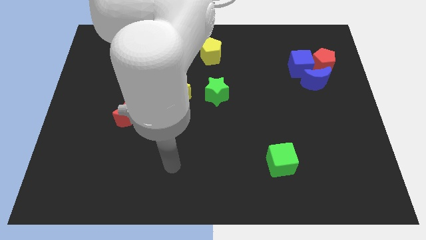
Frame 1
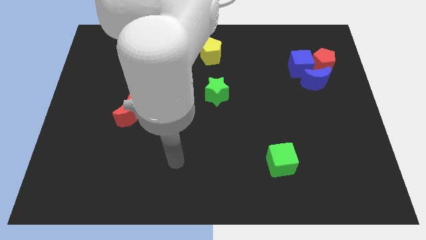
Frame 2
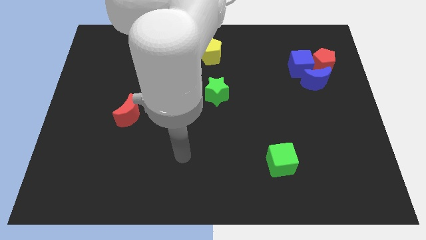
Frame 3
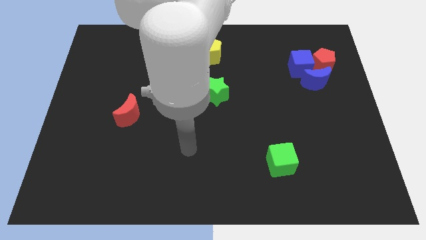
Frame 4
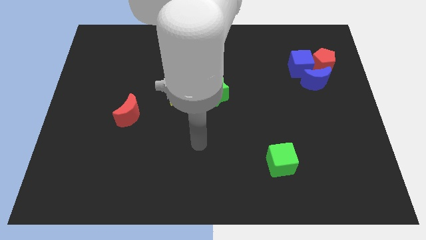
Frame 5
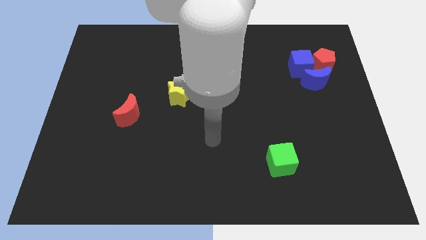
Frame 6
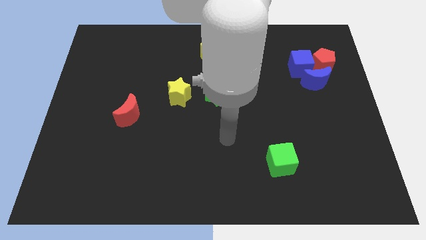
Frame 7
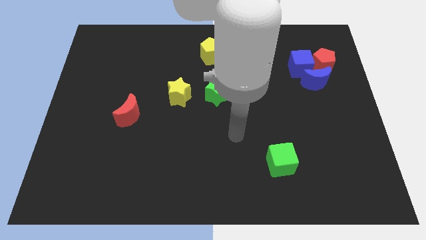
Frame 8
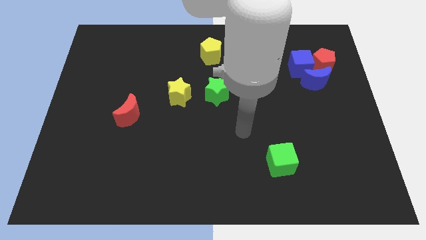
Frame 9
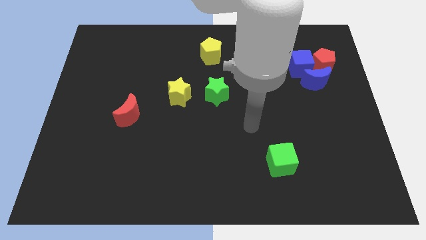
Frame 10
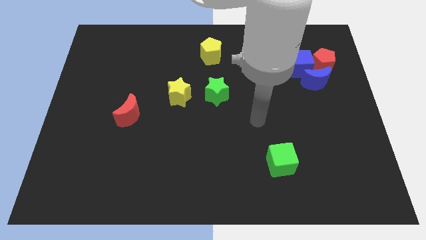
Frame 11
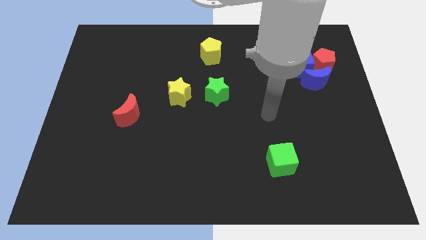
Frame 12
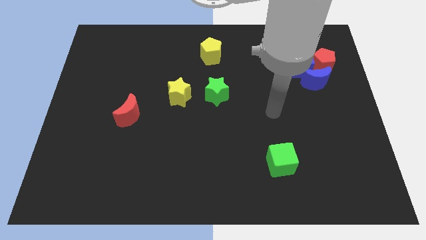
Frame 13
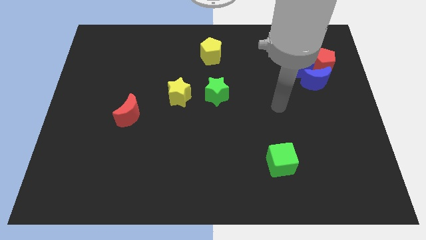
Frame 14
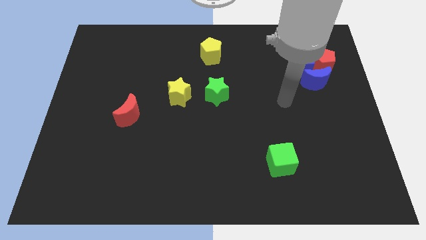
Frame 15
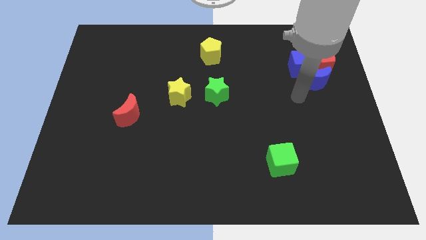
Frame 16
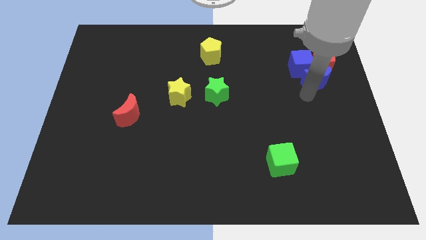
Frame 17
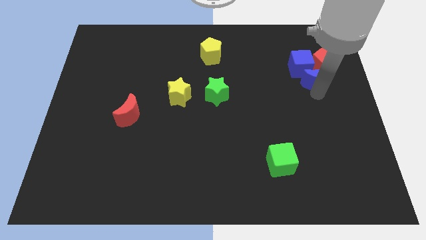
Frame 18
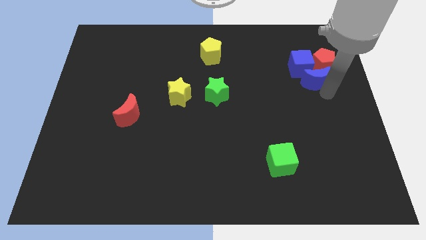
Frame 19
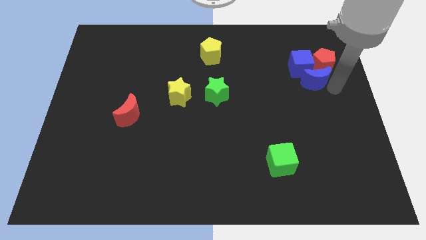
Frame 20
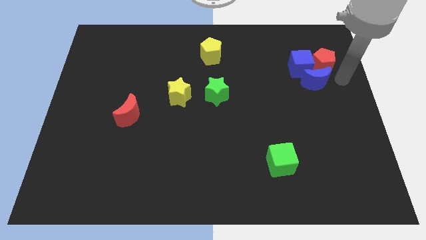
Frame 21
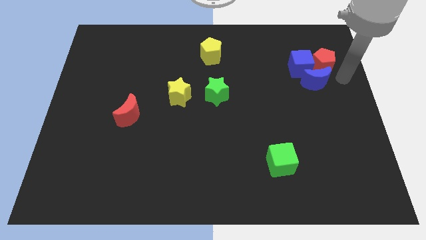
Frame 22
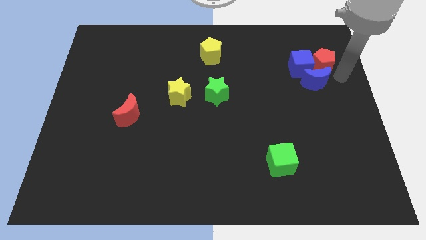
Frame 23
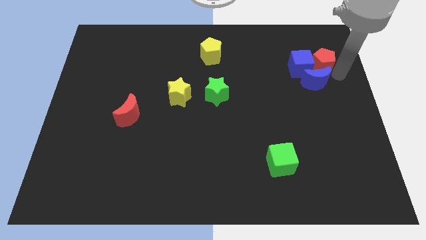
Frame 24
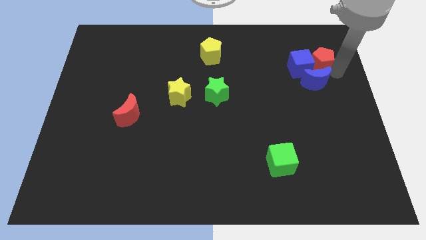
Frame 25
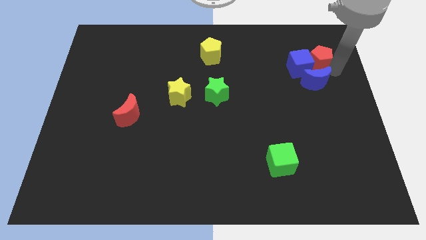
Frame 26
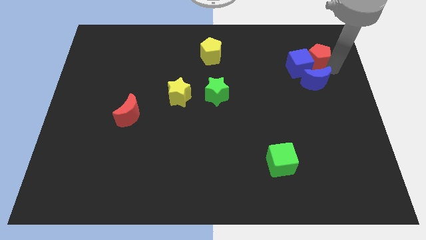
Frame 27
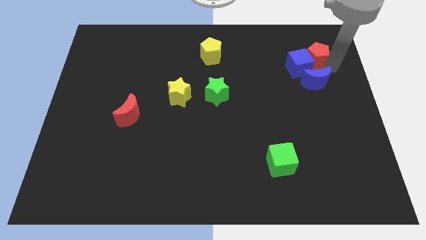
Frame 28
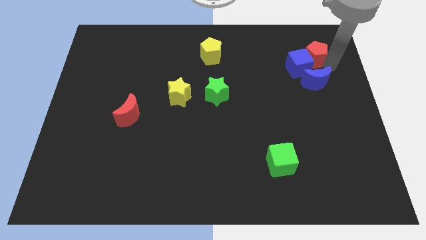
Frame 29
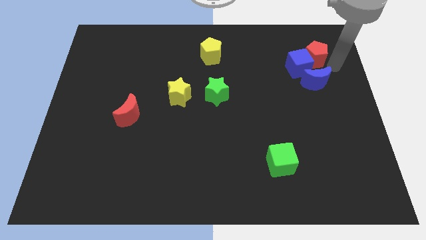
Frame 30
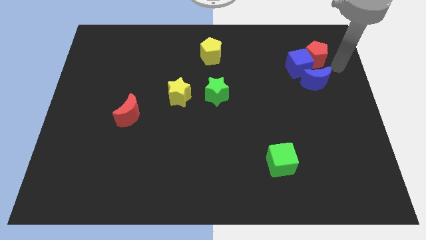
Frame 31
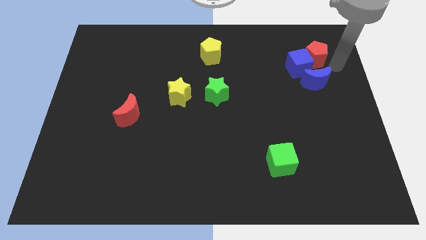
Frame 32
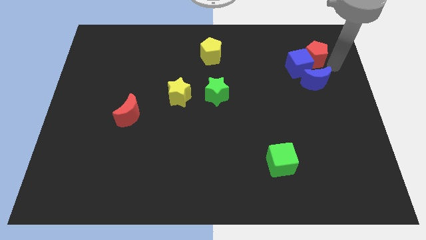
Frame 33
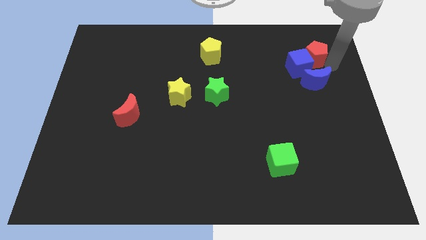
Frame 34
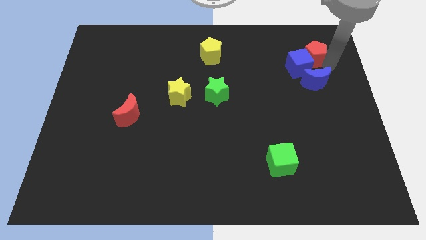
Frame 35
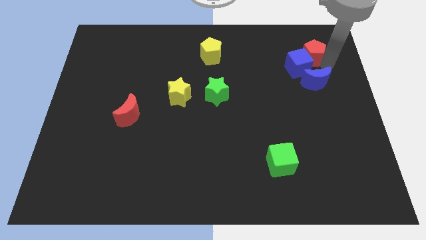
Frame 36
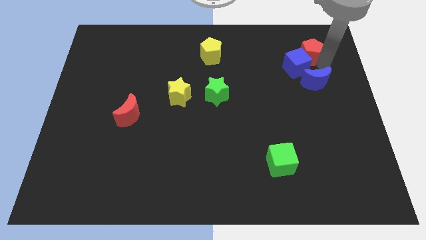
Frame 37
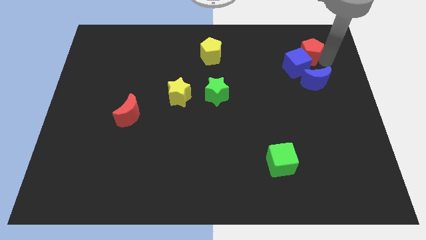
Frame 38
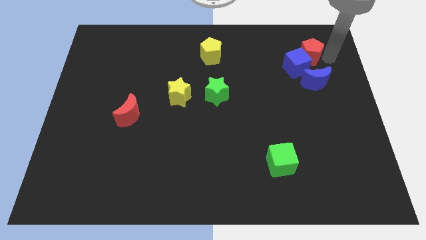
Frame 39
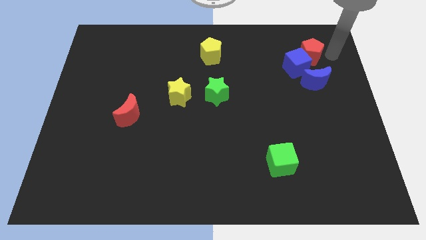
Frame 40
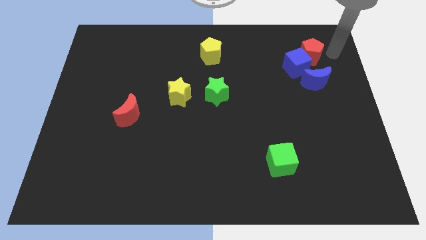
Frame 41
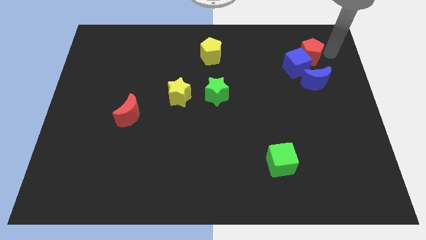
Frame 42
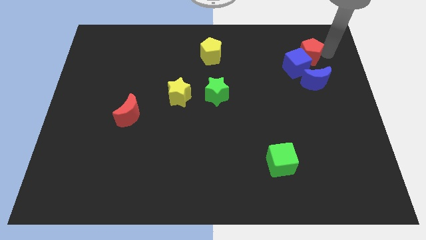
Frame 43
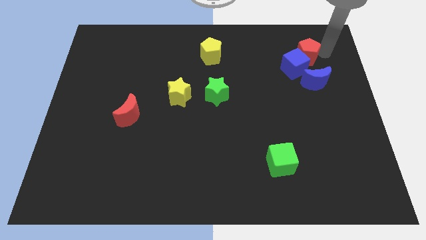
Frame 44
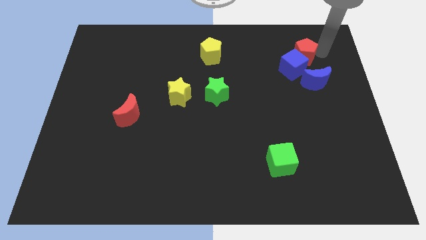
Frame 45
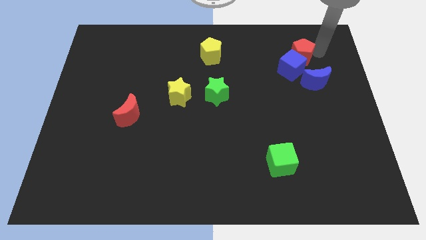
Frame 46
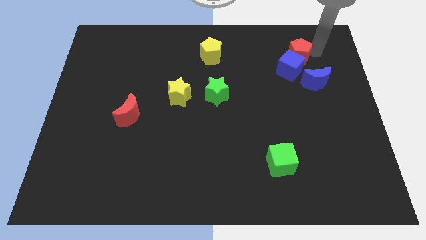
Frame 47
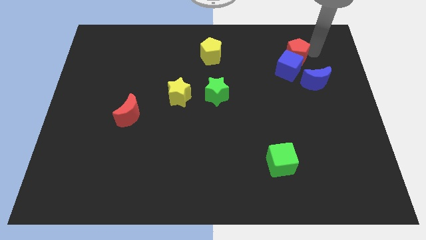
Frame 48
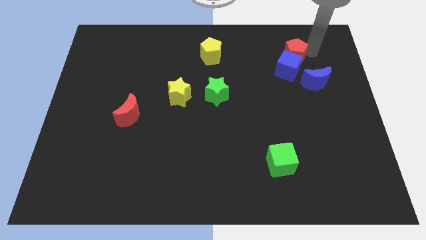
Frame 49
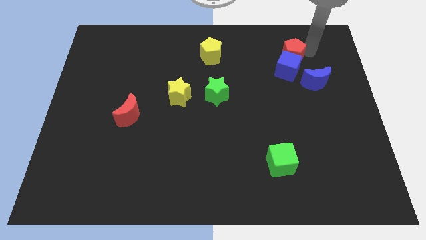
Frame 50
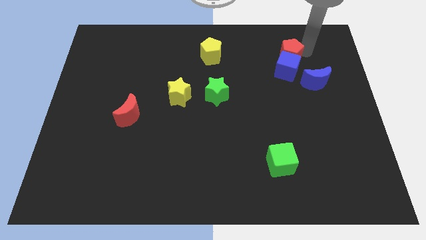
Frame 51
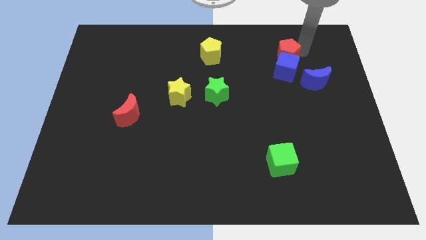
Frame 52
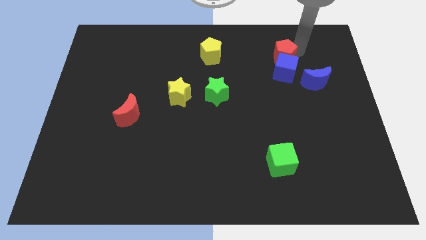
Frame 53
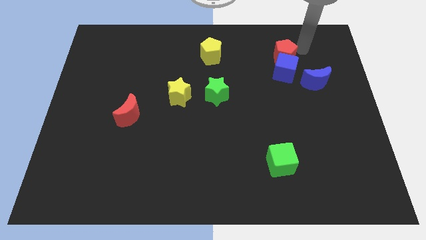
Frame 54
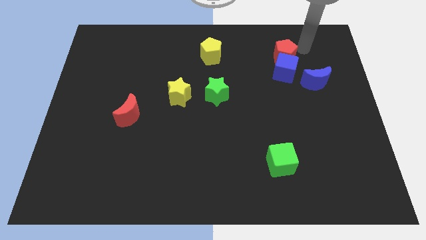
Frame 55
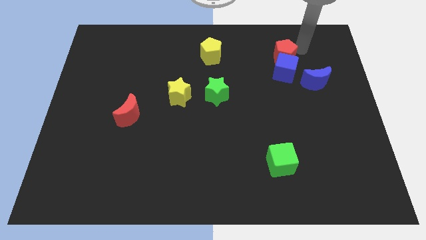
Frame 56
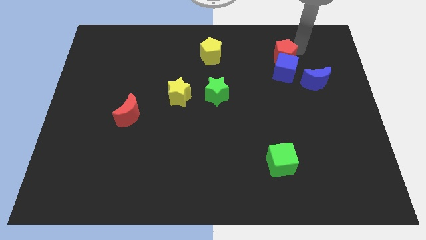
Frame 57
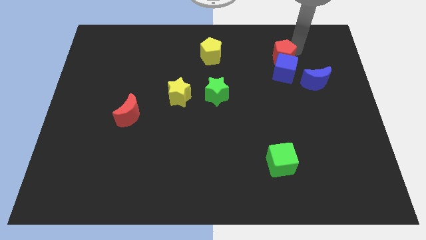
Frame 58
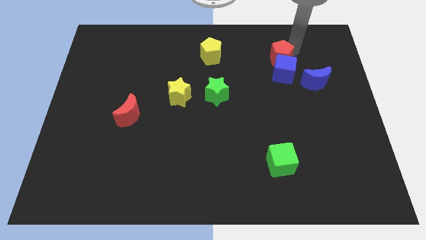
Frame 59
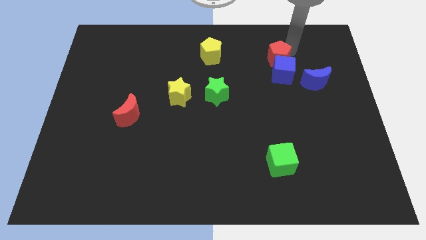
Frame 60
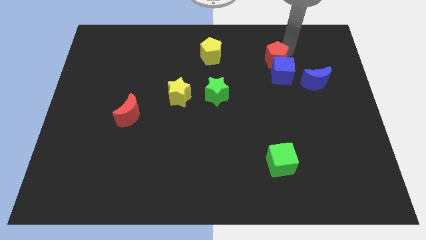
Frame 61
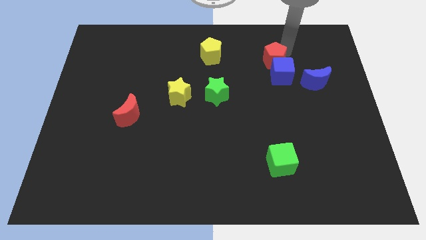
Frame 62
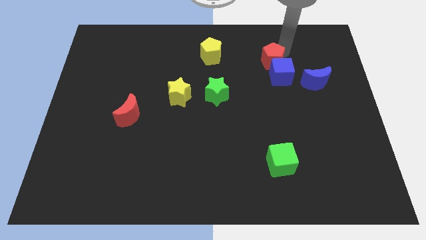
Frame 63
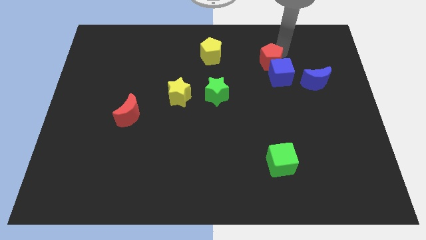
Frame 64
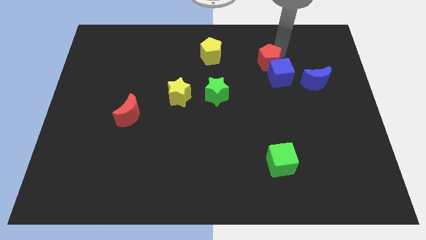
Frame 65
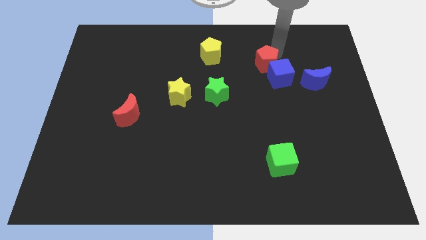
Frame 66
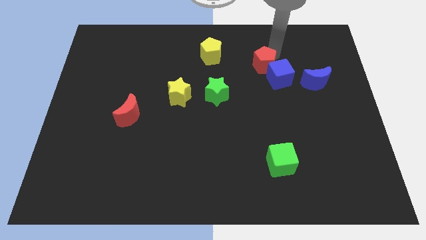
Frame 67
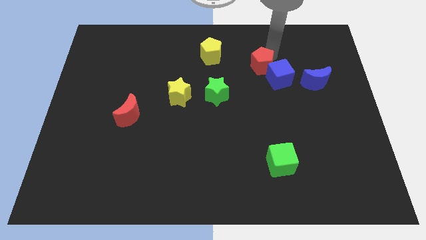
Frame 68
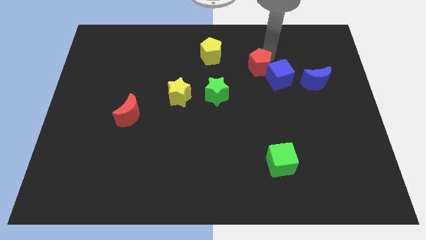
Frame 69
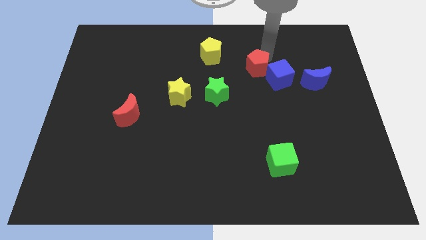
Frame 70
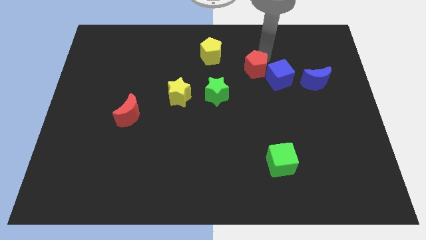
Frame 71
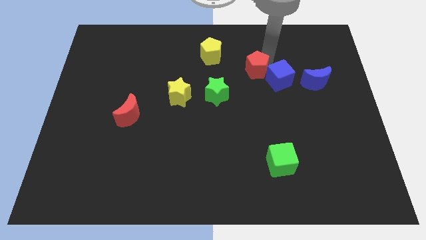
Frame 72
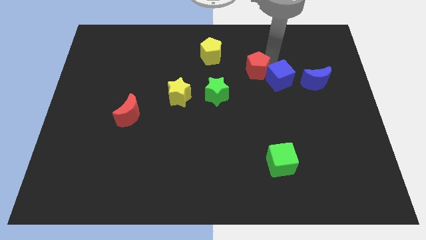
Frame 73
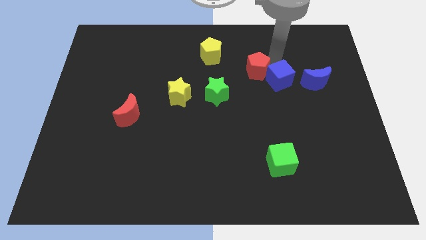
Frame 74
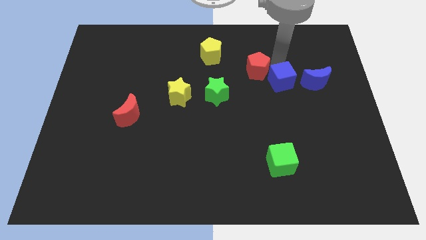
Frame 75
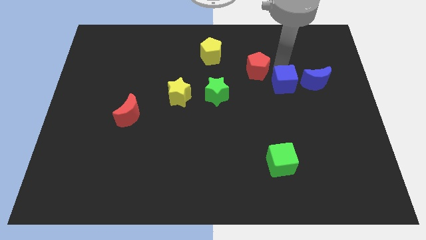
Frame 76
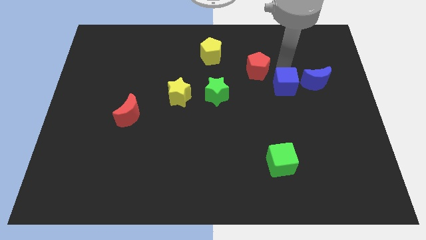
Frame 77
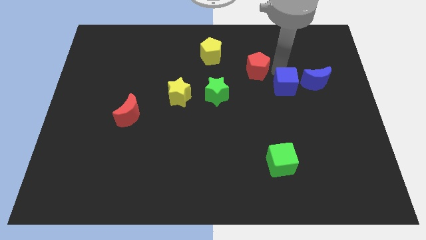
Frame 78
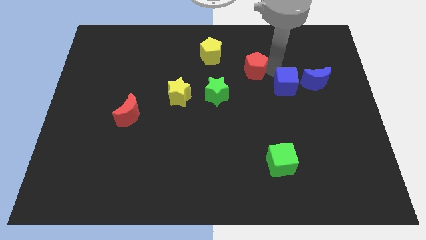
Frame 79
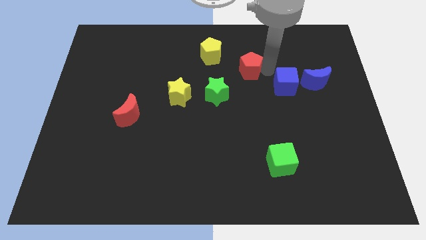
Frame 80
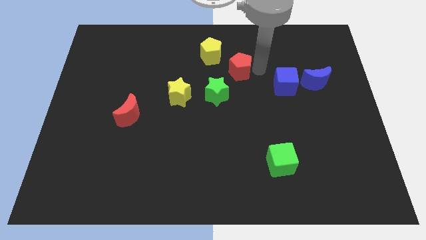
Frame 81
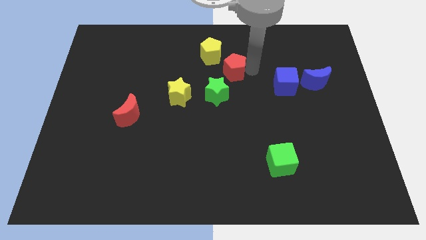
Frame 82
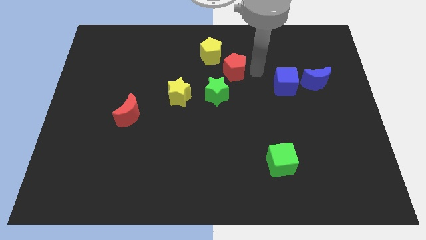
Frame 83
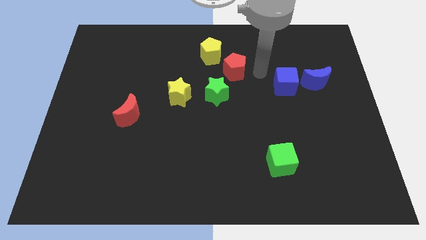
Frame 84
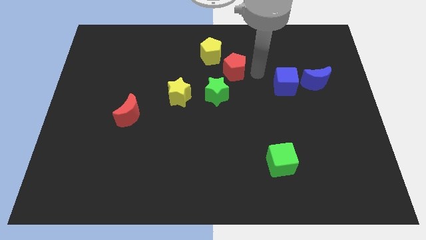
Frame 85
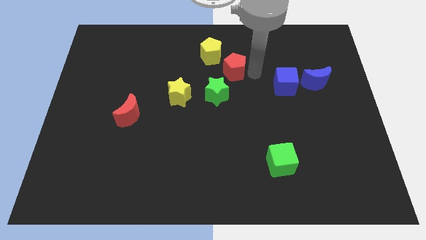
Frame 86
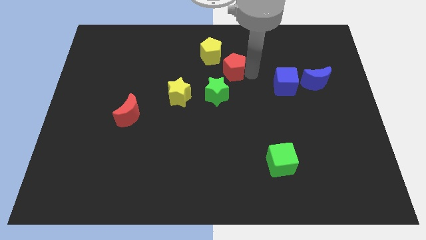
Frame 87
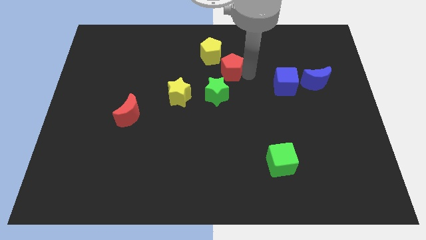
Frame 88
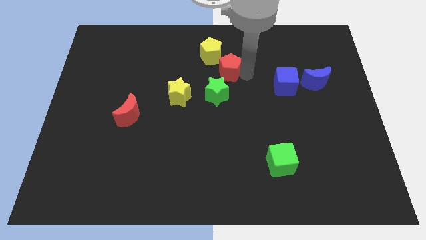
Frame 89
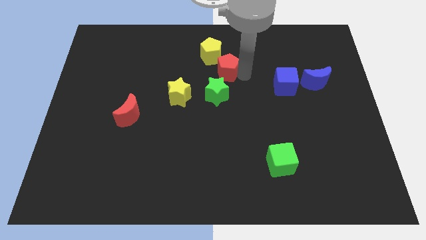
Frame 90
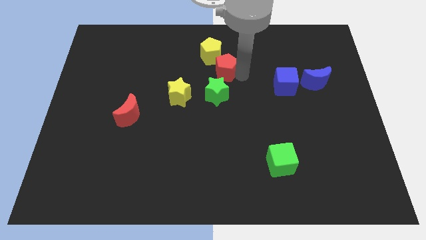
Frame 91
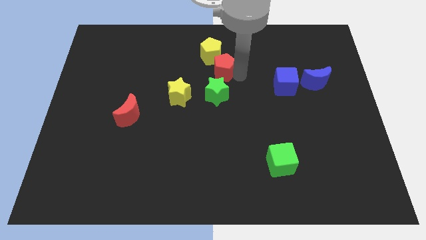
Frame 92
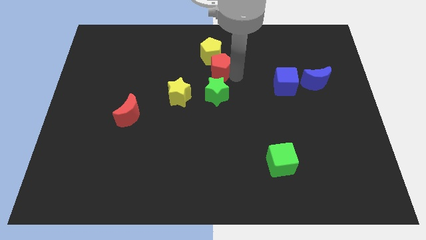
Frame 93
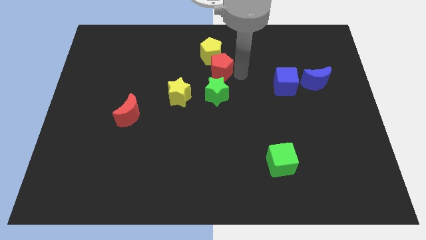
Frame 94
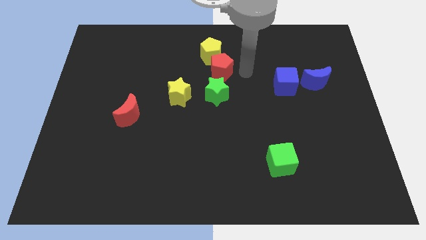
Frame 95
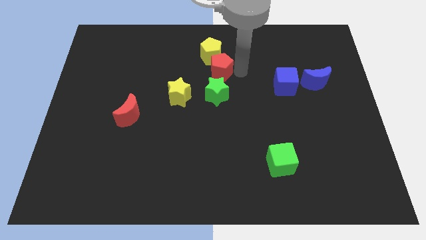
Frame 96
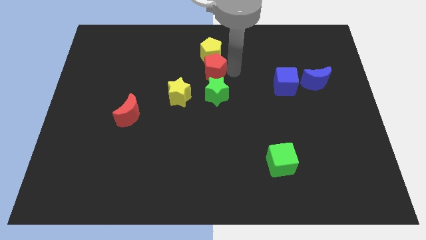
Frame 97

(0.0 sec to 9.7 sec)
put the red pentagon diagonally down and to the left of the yellow pentagon
